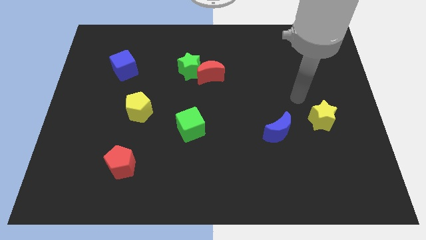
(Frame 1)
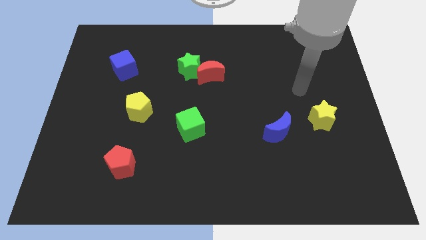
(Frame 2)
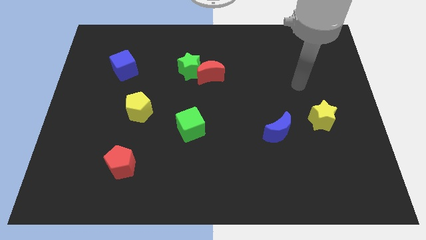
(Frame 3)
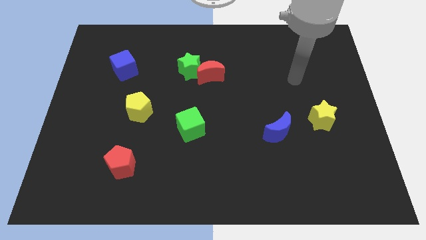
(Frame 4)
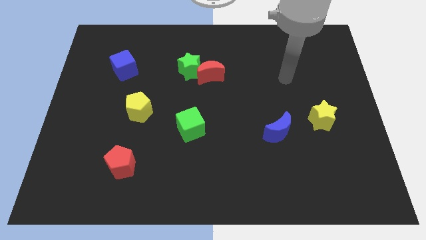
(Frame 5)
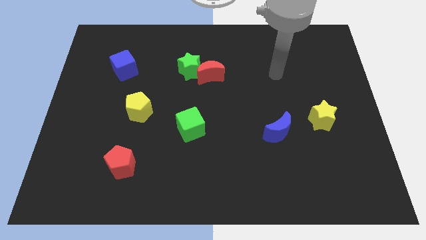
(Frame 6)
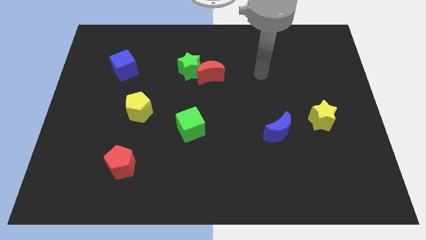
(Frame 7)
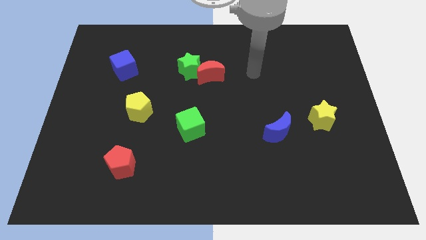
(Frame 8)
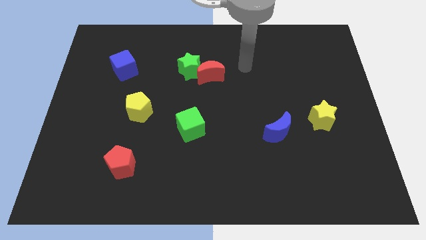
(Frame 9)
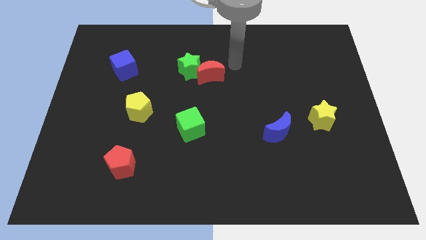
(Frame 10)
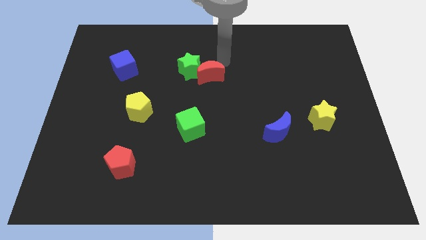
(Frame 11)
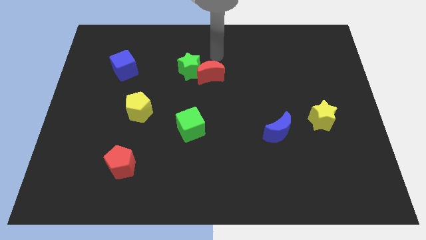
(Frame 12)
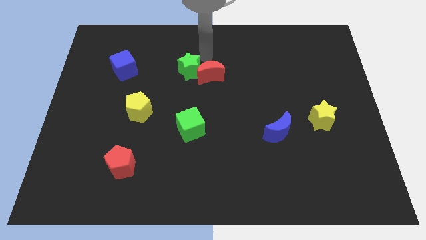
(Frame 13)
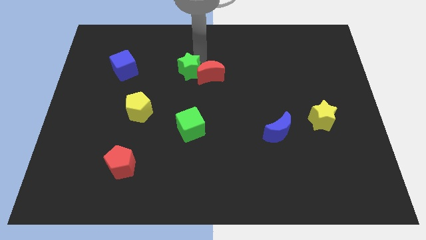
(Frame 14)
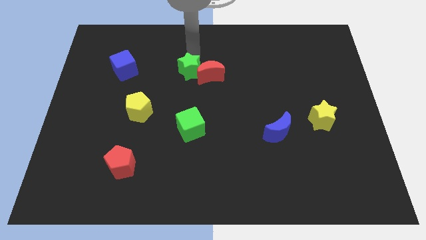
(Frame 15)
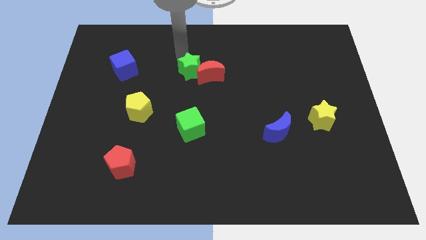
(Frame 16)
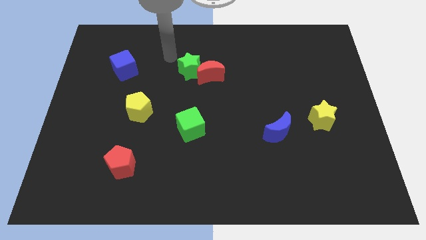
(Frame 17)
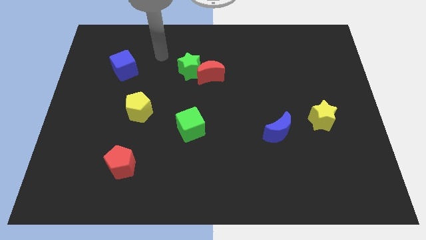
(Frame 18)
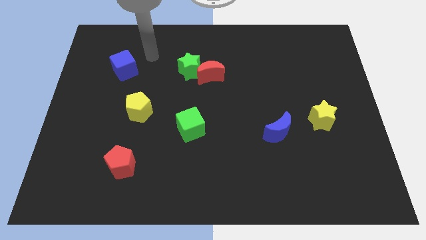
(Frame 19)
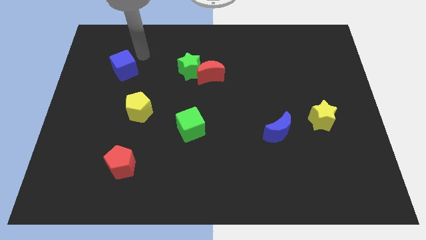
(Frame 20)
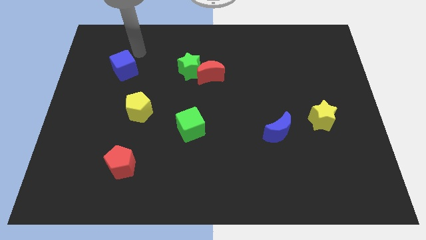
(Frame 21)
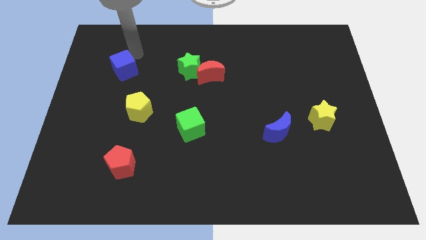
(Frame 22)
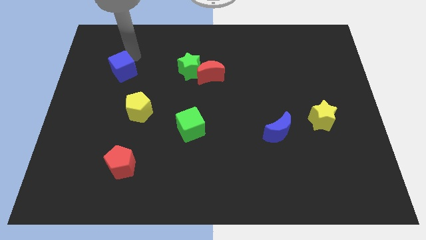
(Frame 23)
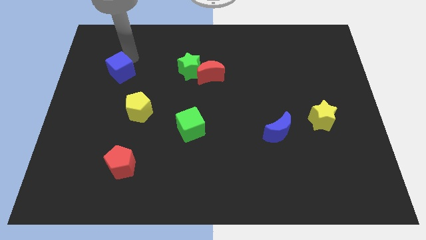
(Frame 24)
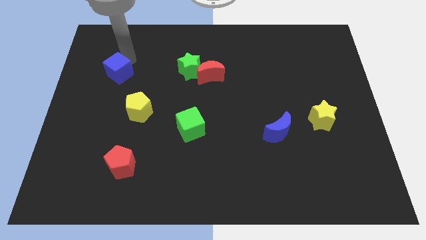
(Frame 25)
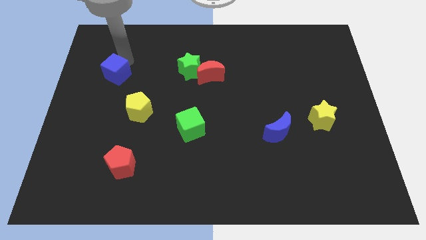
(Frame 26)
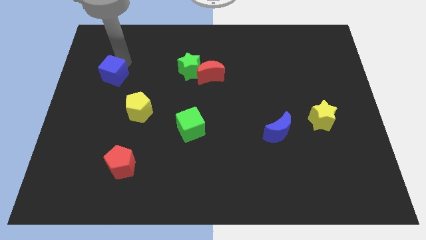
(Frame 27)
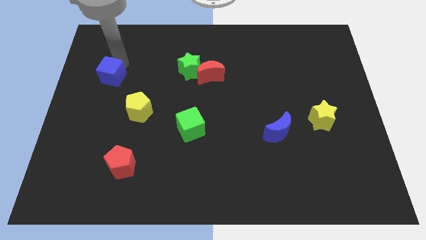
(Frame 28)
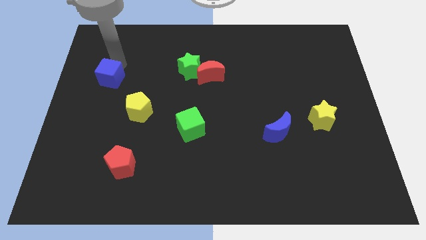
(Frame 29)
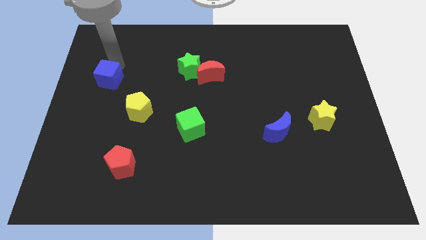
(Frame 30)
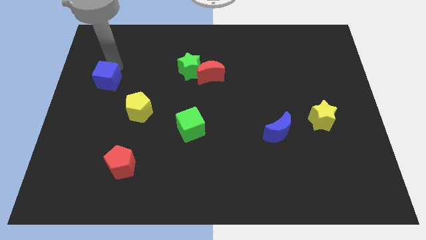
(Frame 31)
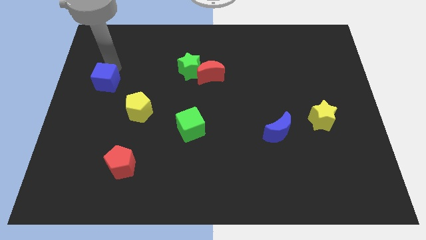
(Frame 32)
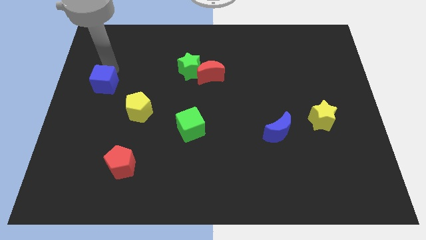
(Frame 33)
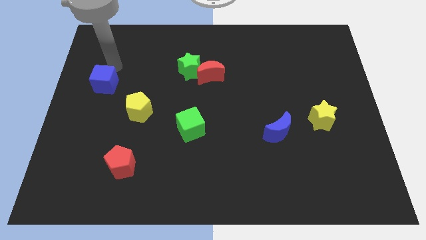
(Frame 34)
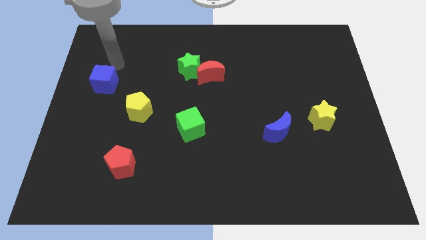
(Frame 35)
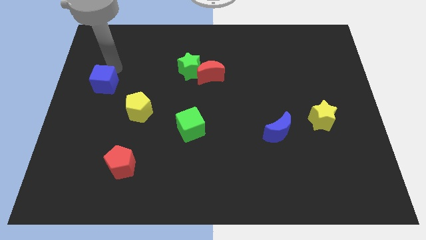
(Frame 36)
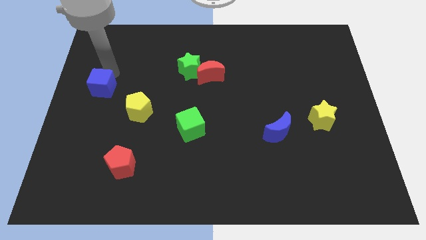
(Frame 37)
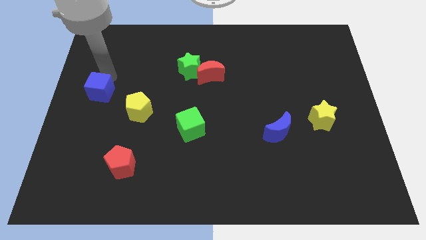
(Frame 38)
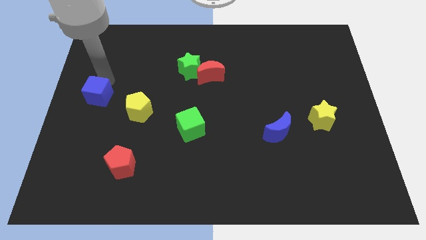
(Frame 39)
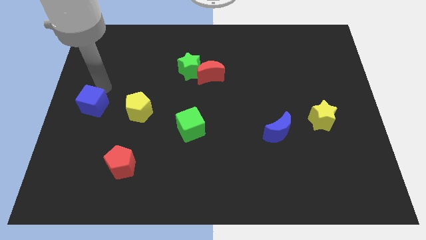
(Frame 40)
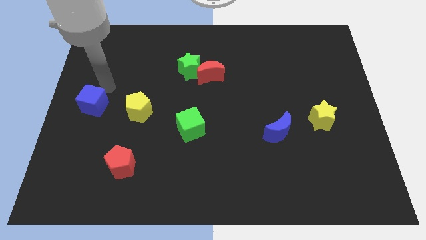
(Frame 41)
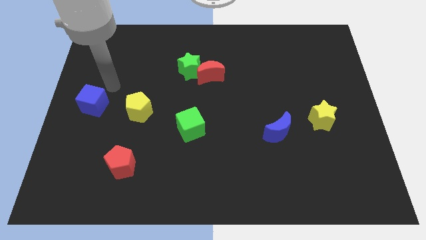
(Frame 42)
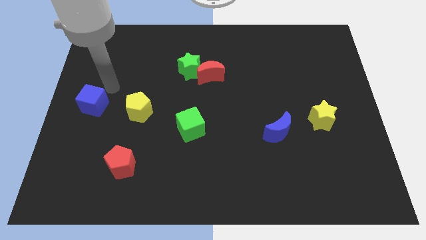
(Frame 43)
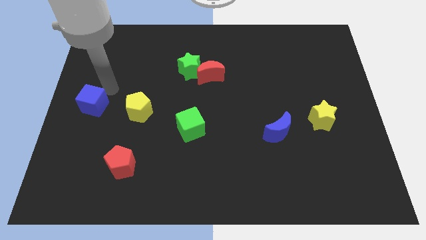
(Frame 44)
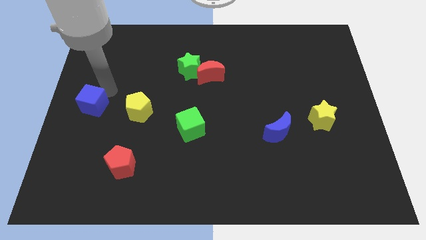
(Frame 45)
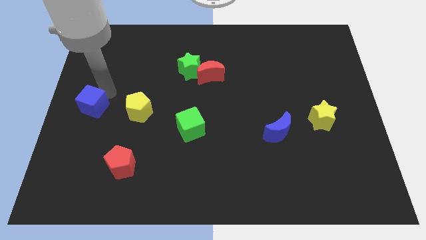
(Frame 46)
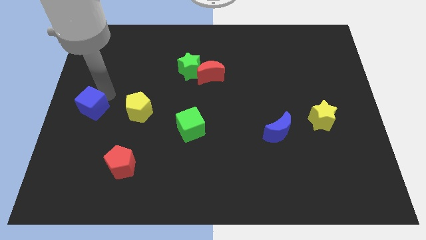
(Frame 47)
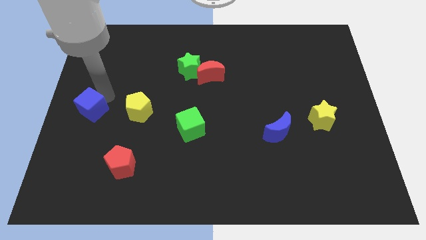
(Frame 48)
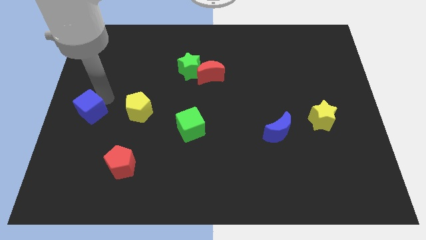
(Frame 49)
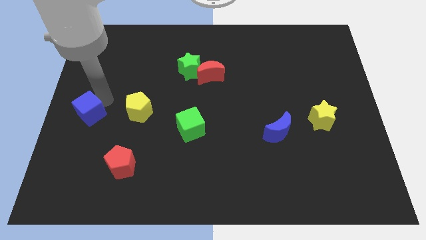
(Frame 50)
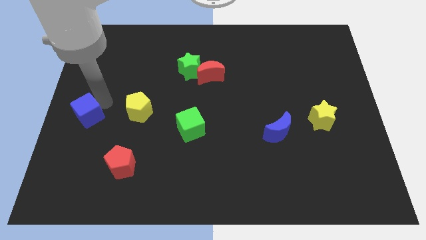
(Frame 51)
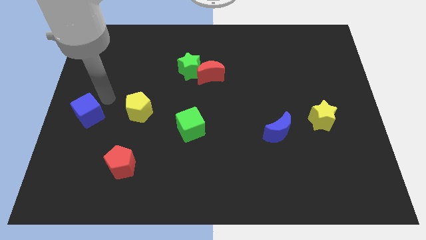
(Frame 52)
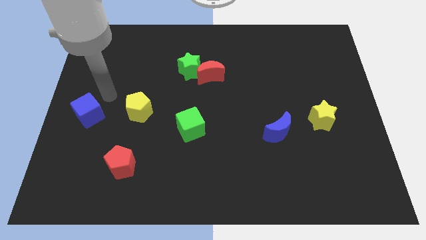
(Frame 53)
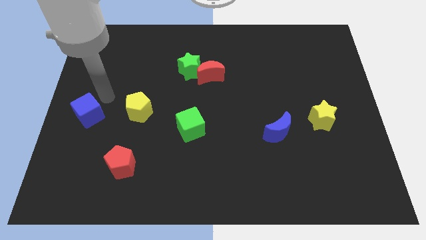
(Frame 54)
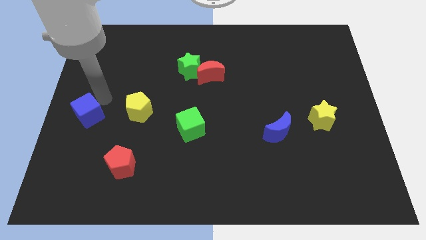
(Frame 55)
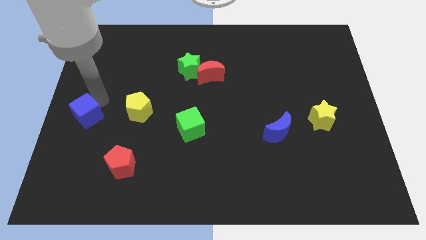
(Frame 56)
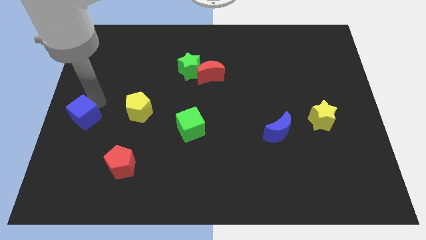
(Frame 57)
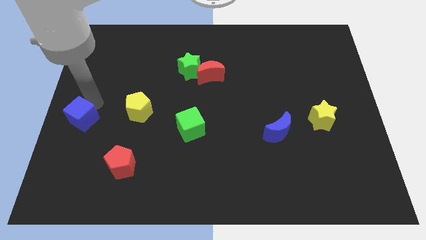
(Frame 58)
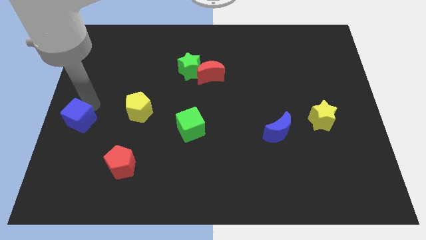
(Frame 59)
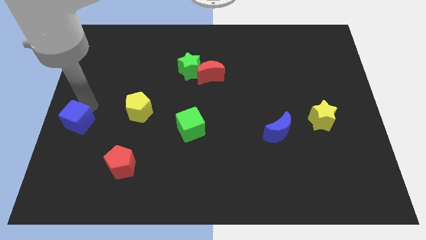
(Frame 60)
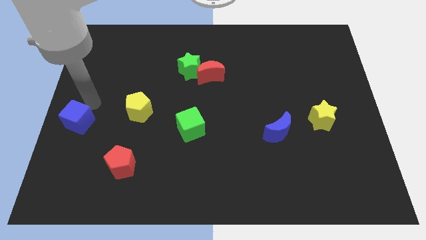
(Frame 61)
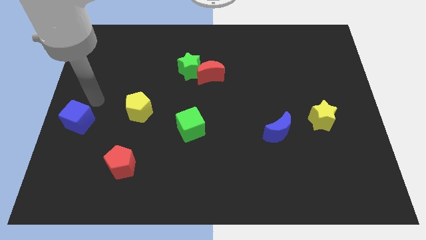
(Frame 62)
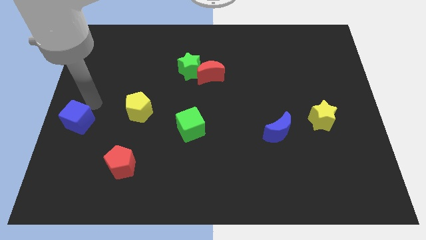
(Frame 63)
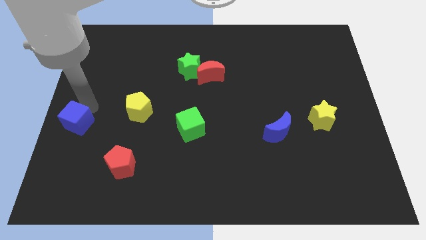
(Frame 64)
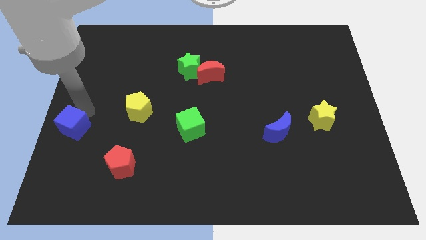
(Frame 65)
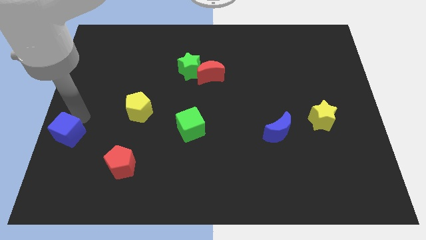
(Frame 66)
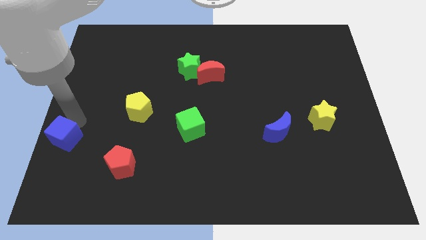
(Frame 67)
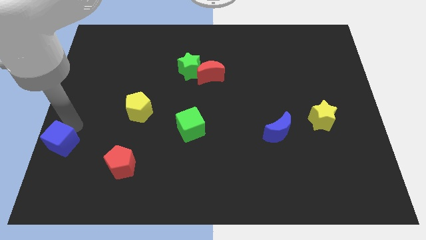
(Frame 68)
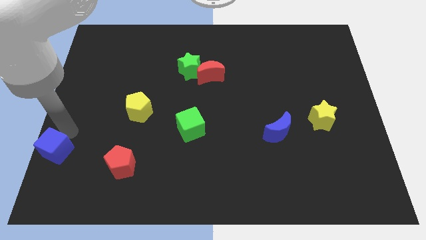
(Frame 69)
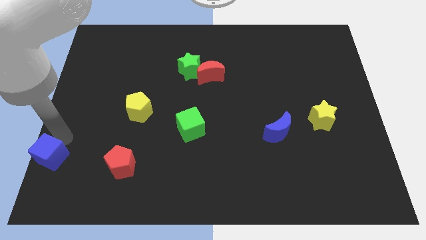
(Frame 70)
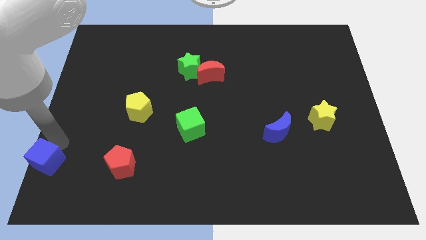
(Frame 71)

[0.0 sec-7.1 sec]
move the blue cube to the bottom left of the board
